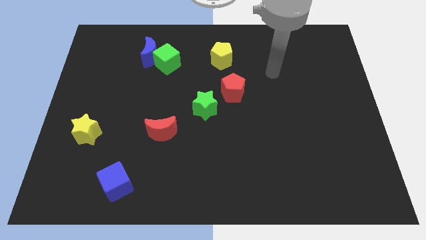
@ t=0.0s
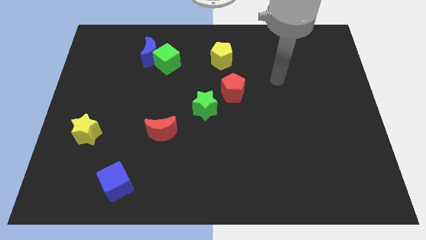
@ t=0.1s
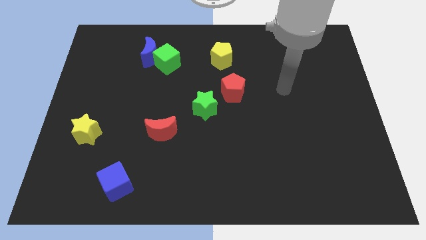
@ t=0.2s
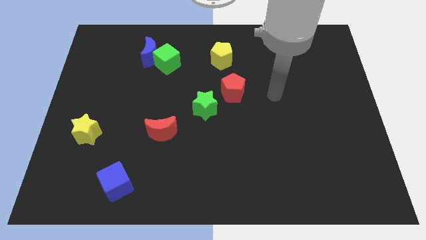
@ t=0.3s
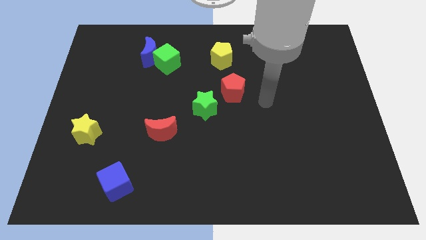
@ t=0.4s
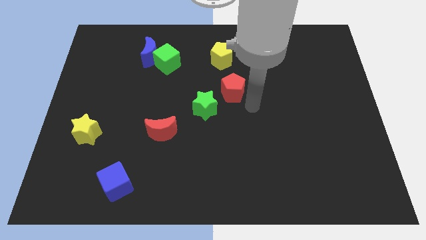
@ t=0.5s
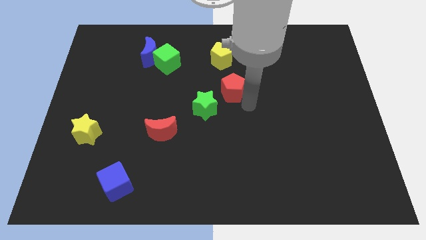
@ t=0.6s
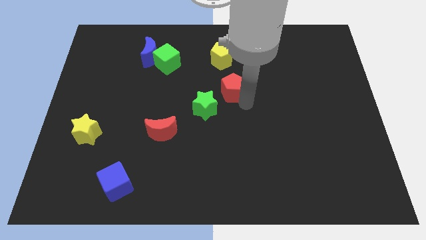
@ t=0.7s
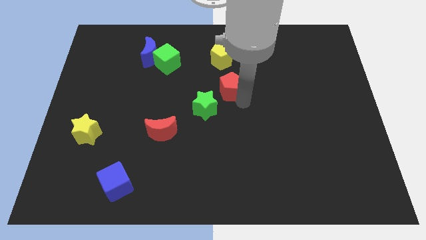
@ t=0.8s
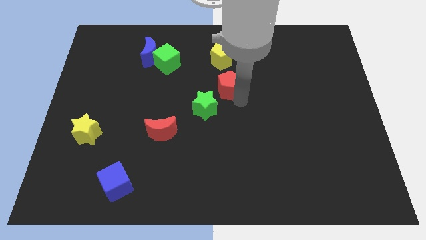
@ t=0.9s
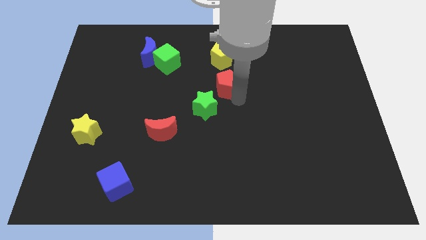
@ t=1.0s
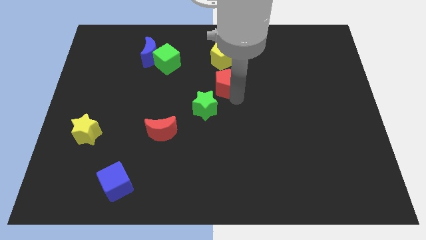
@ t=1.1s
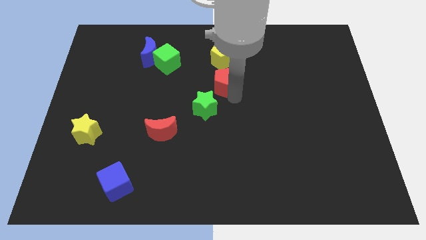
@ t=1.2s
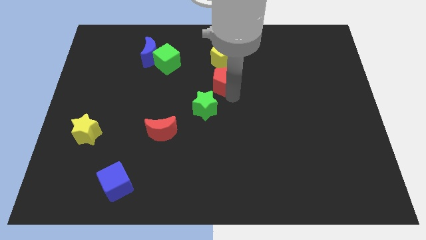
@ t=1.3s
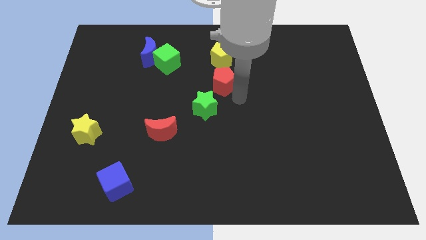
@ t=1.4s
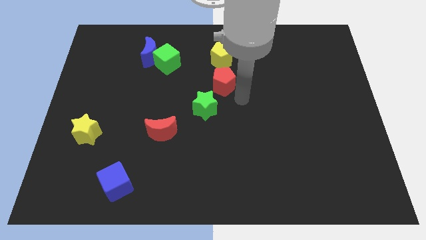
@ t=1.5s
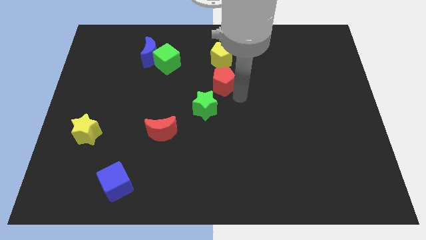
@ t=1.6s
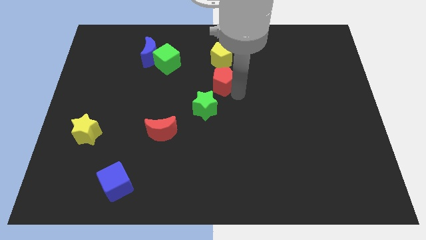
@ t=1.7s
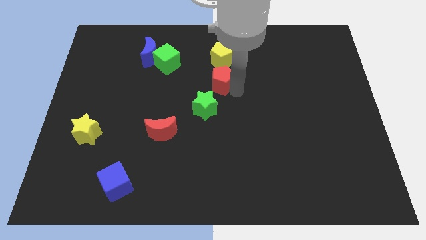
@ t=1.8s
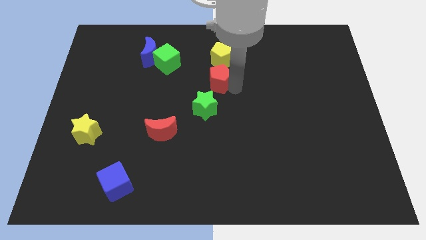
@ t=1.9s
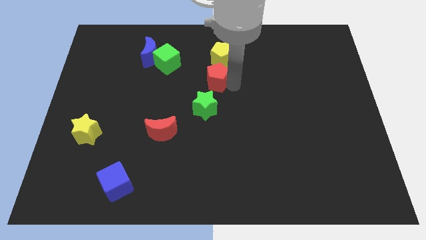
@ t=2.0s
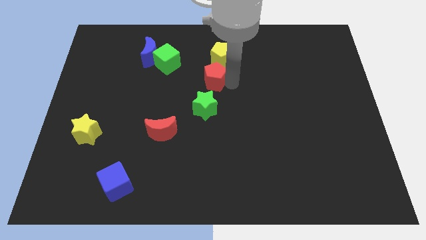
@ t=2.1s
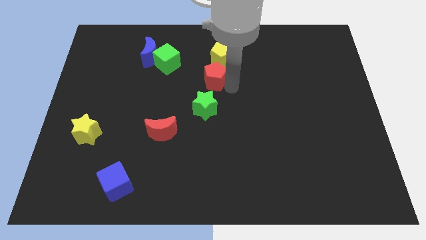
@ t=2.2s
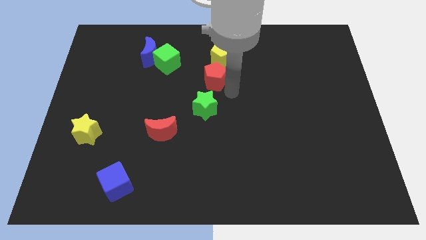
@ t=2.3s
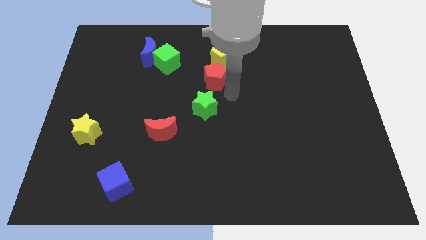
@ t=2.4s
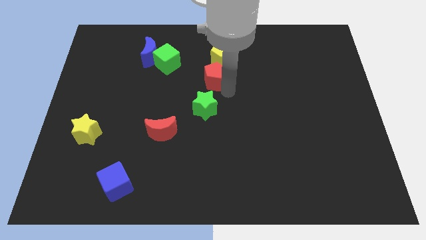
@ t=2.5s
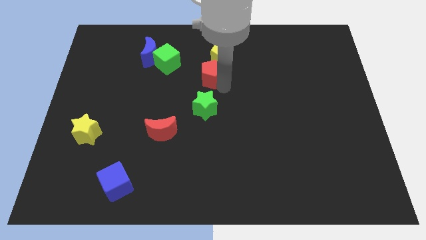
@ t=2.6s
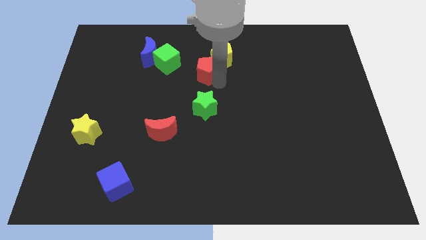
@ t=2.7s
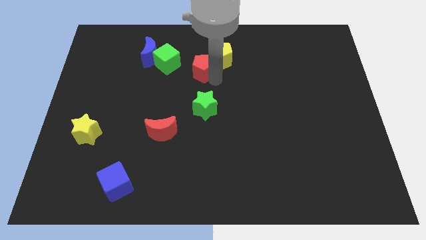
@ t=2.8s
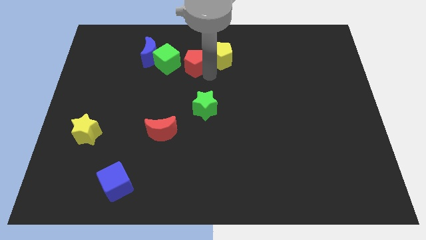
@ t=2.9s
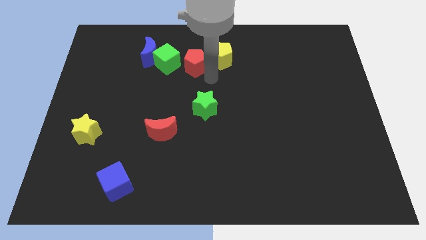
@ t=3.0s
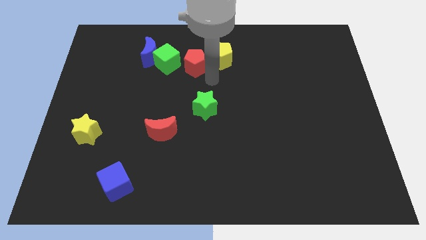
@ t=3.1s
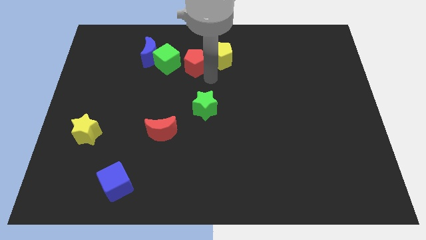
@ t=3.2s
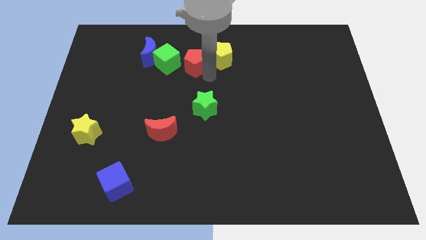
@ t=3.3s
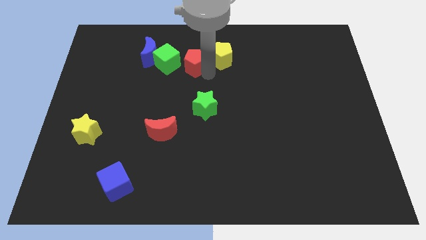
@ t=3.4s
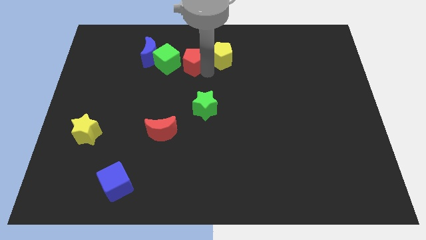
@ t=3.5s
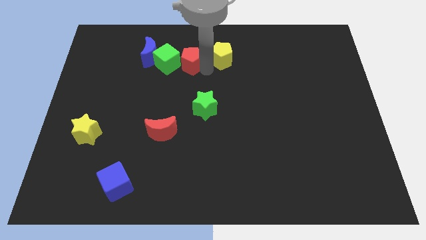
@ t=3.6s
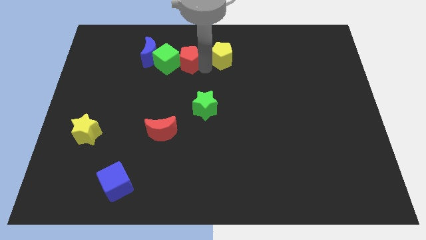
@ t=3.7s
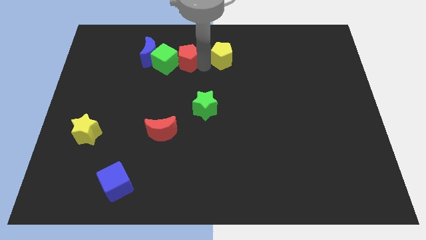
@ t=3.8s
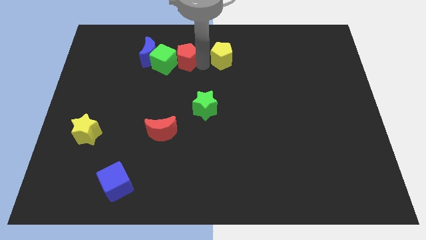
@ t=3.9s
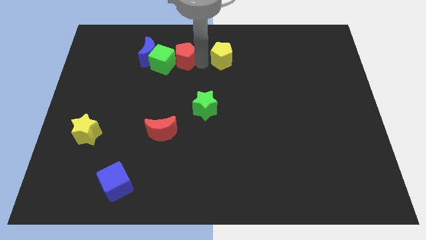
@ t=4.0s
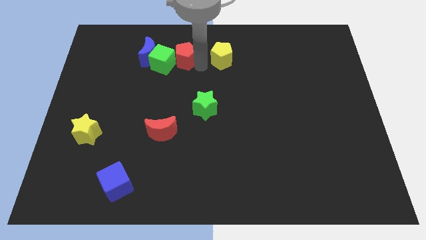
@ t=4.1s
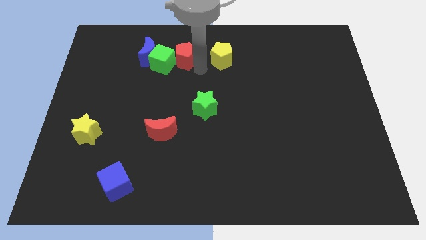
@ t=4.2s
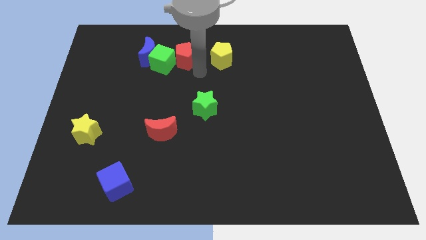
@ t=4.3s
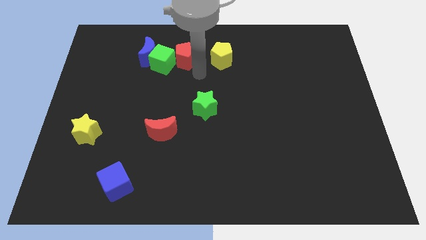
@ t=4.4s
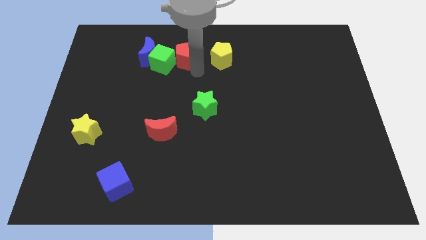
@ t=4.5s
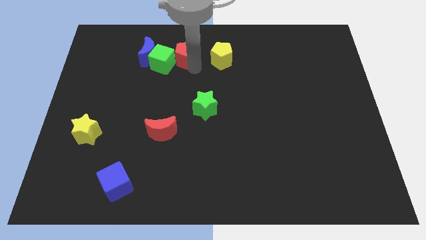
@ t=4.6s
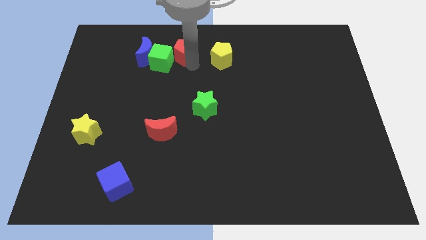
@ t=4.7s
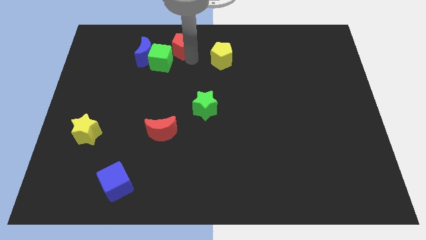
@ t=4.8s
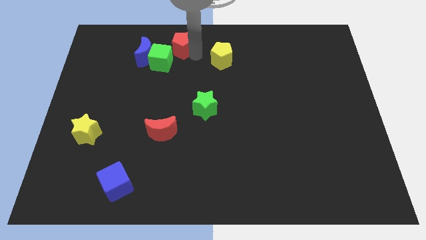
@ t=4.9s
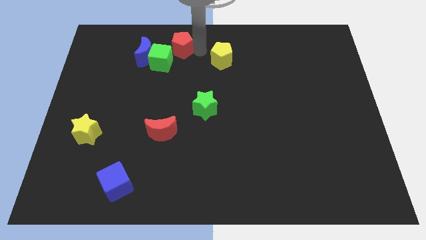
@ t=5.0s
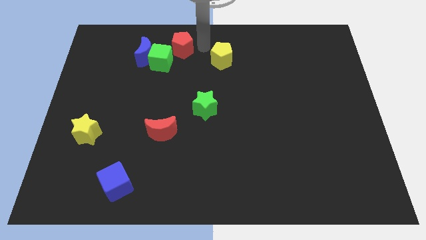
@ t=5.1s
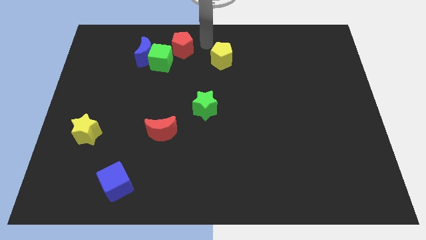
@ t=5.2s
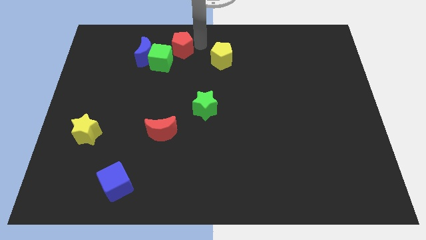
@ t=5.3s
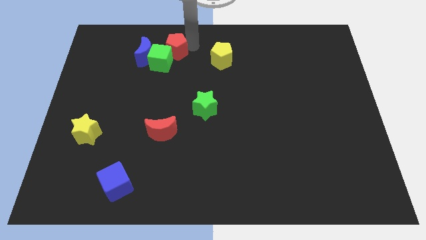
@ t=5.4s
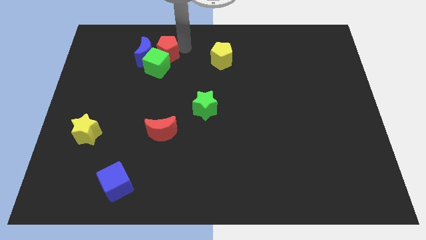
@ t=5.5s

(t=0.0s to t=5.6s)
move the red pentagon close to the blue moon

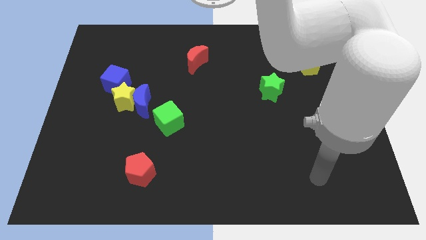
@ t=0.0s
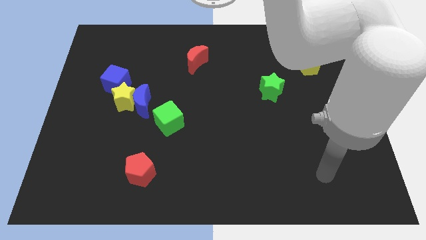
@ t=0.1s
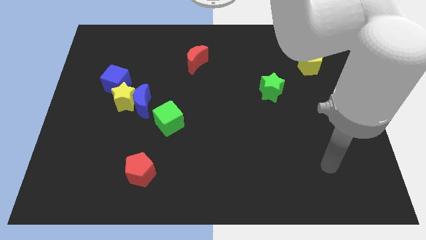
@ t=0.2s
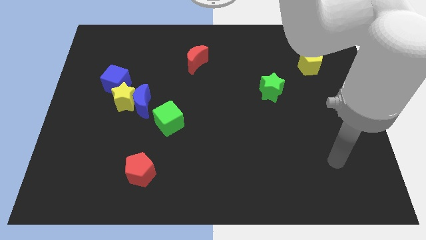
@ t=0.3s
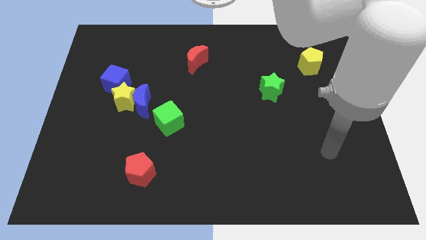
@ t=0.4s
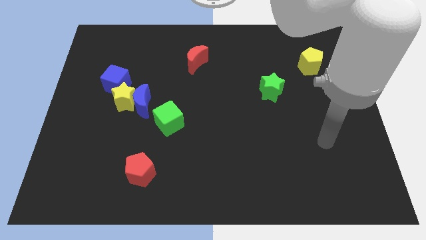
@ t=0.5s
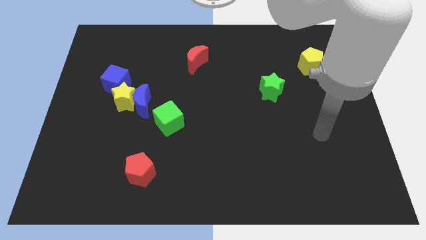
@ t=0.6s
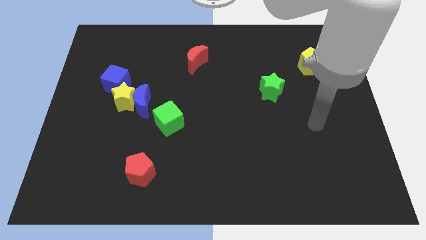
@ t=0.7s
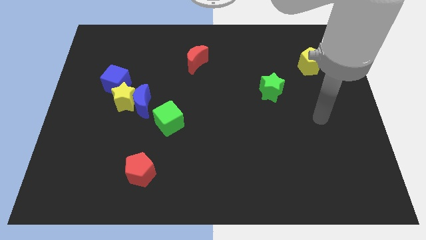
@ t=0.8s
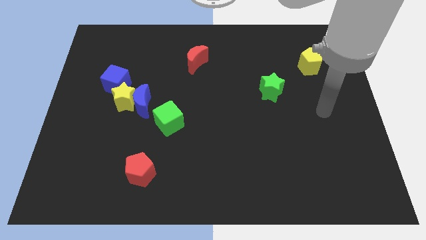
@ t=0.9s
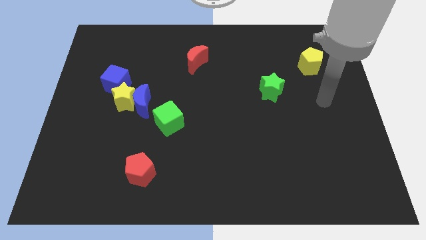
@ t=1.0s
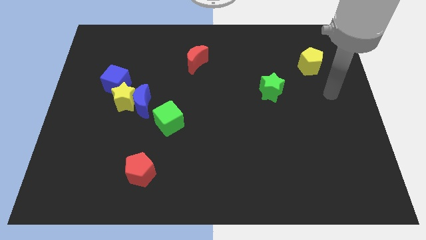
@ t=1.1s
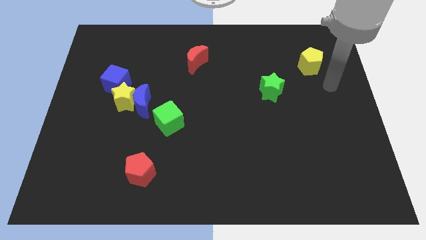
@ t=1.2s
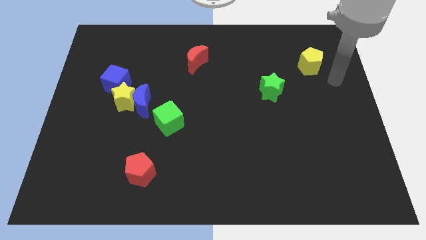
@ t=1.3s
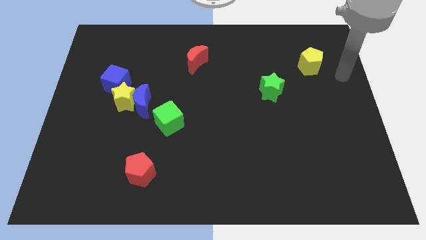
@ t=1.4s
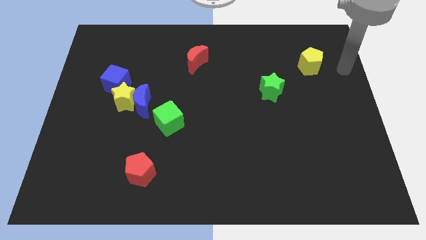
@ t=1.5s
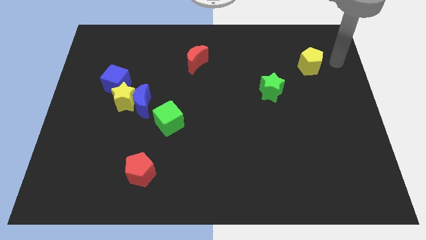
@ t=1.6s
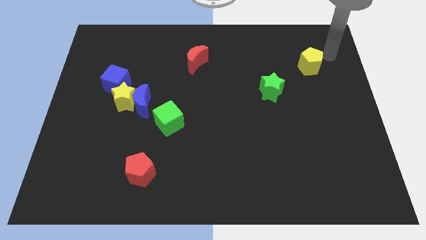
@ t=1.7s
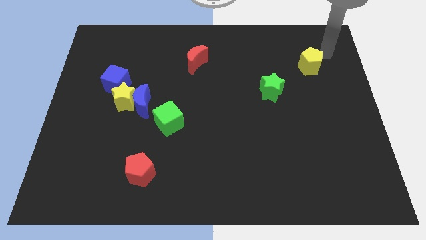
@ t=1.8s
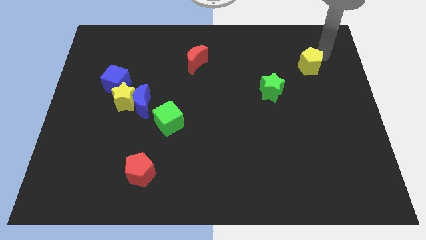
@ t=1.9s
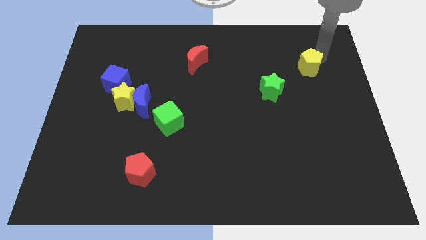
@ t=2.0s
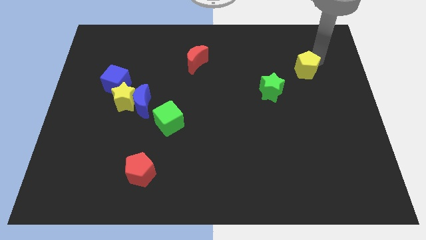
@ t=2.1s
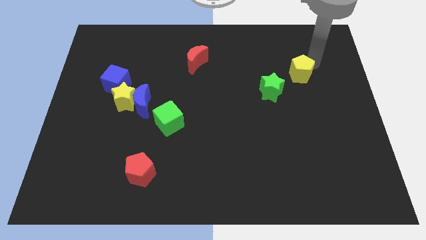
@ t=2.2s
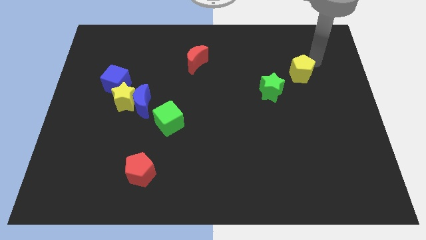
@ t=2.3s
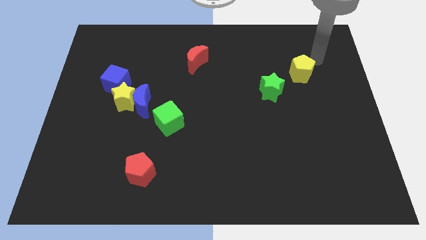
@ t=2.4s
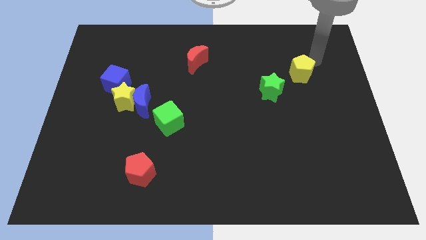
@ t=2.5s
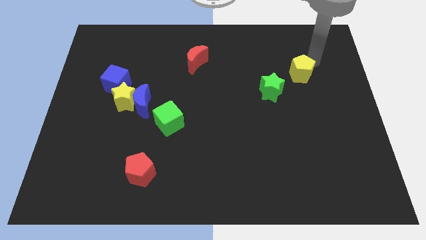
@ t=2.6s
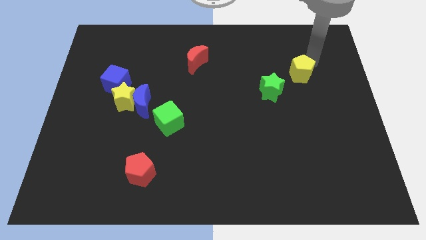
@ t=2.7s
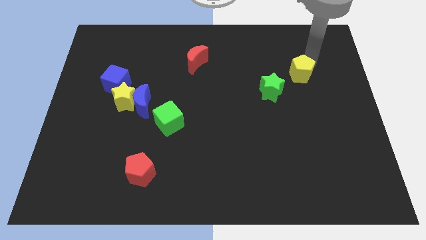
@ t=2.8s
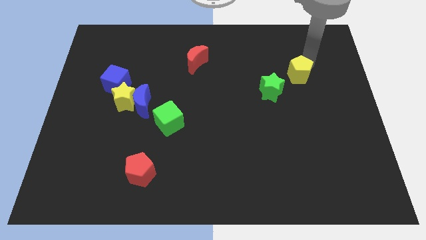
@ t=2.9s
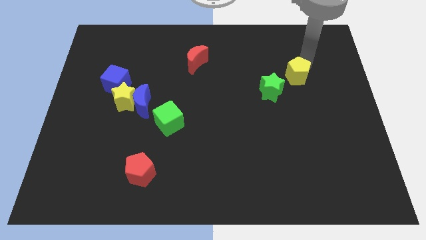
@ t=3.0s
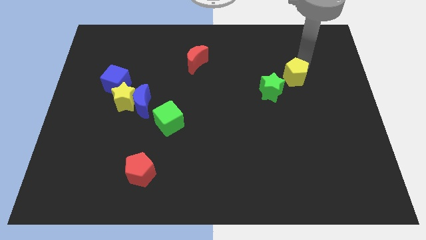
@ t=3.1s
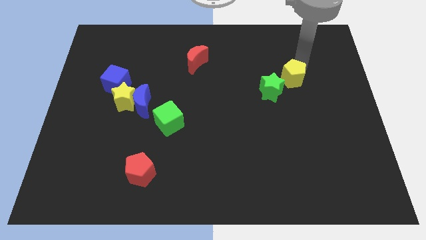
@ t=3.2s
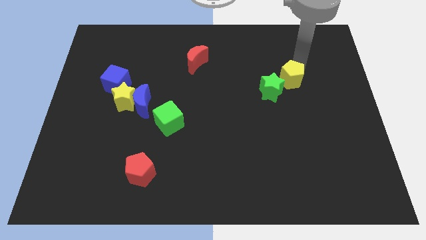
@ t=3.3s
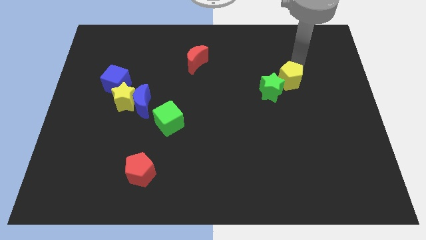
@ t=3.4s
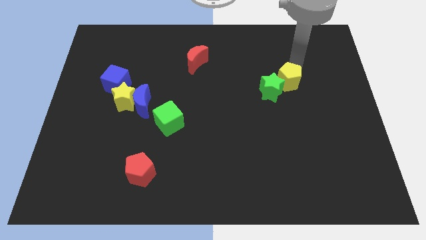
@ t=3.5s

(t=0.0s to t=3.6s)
push the yellow pentagon towards the green star

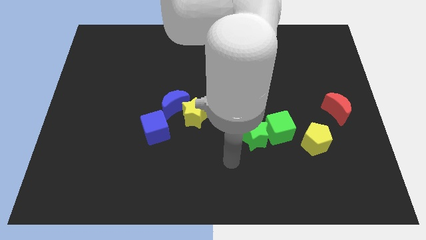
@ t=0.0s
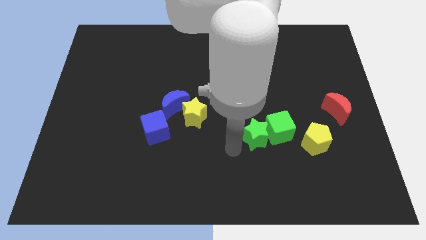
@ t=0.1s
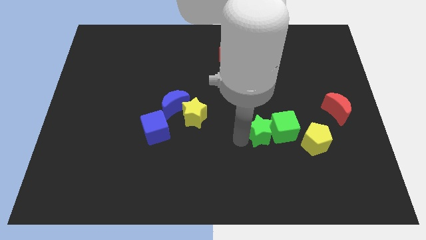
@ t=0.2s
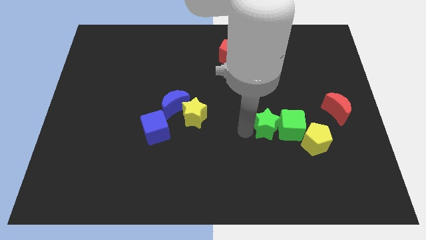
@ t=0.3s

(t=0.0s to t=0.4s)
move the green cube next to the yellow pentagon
